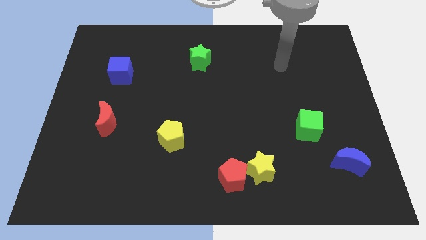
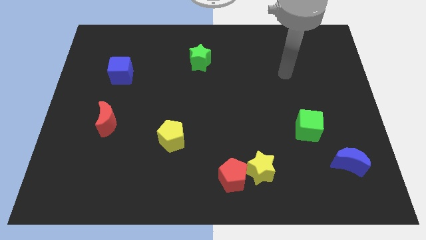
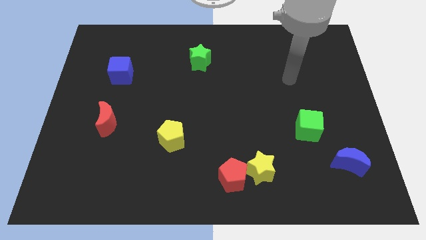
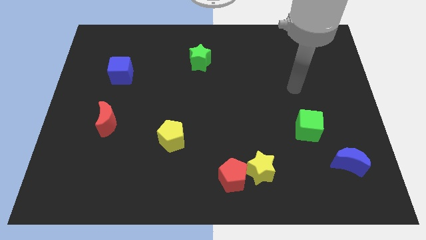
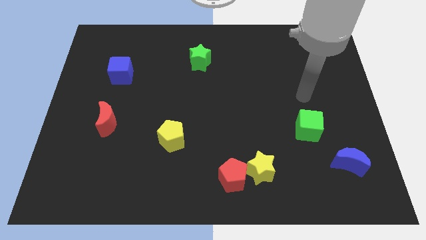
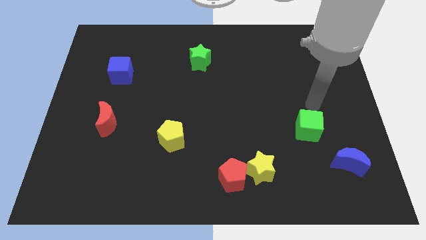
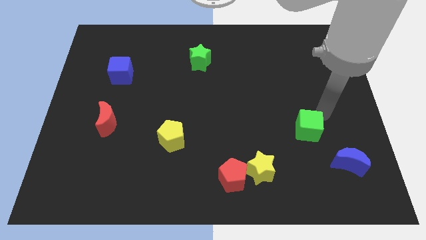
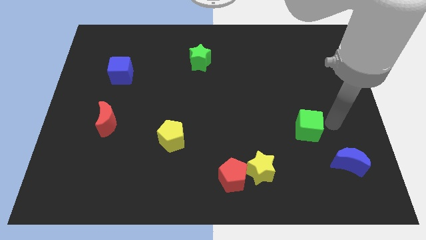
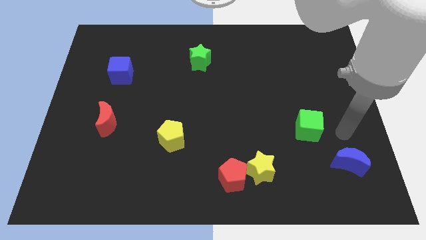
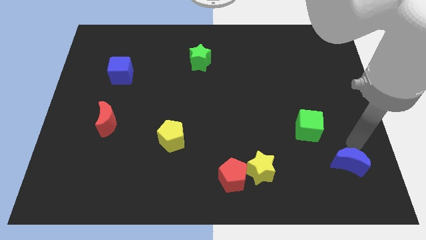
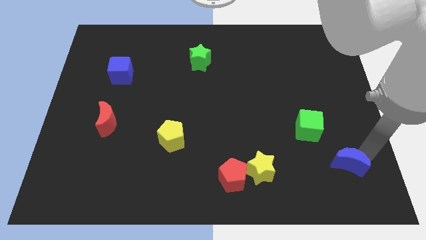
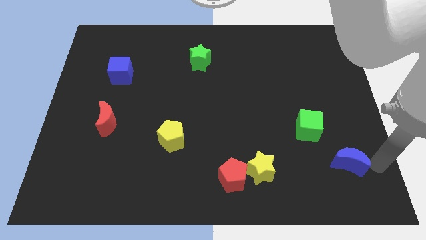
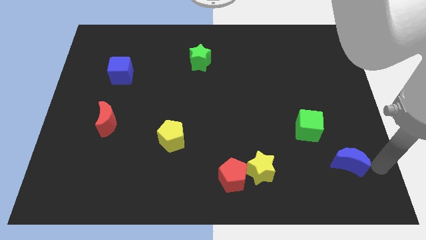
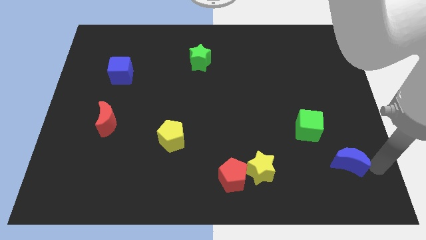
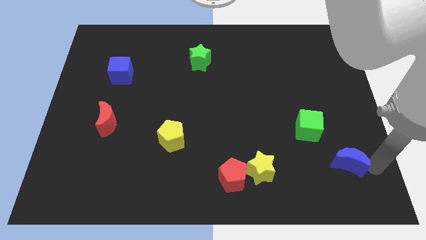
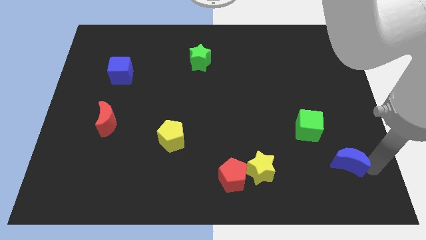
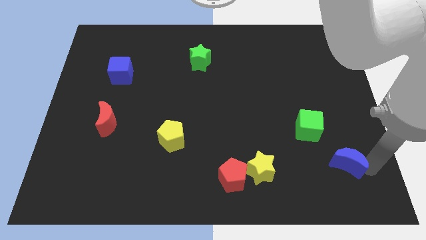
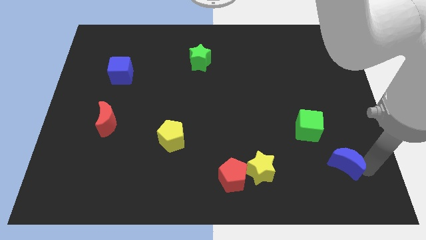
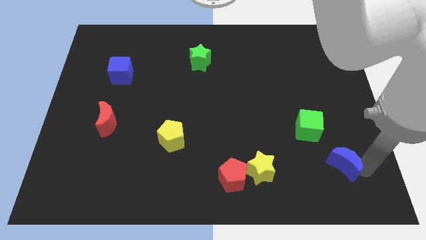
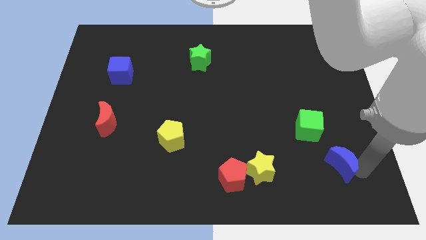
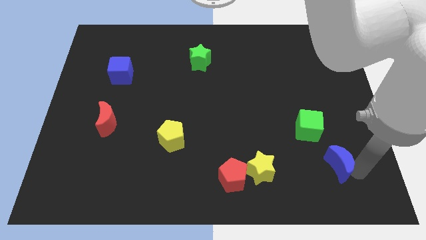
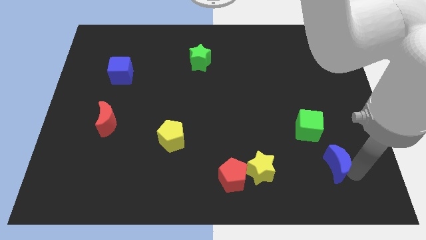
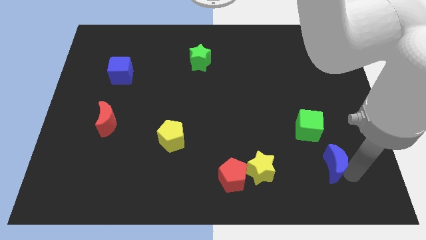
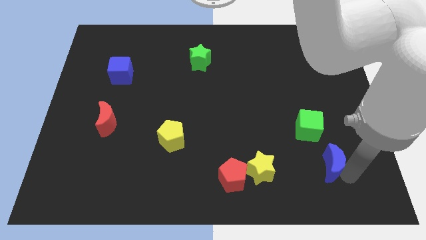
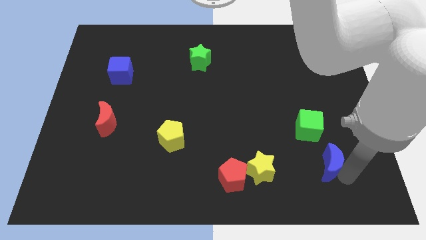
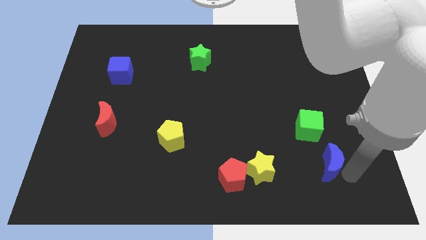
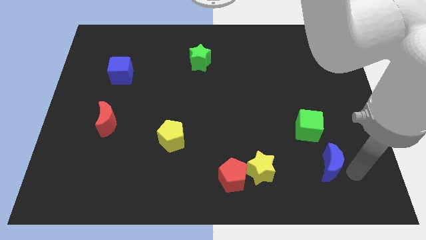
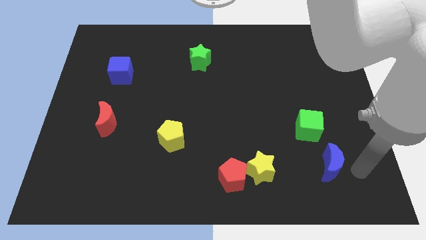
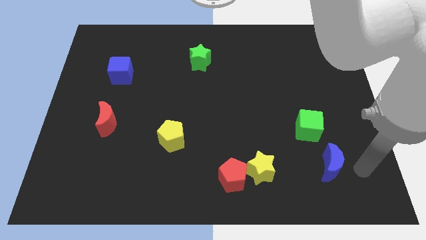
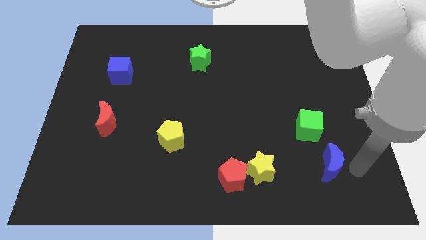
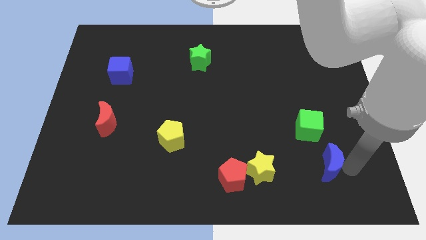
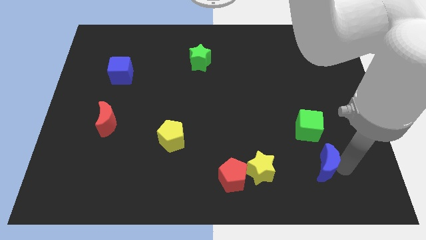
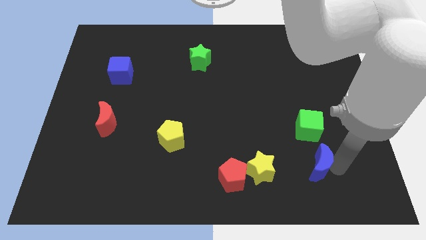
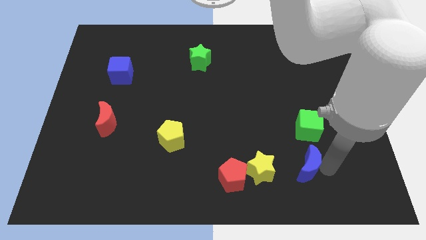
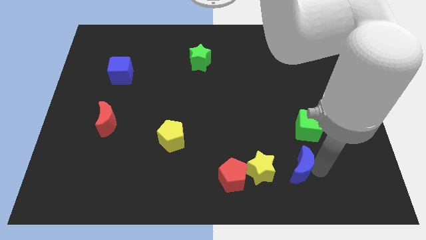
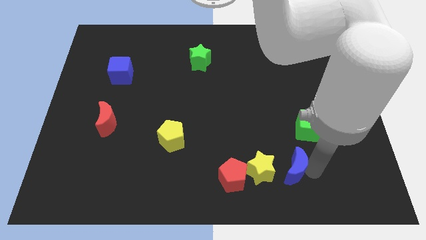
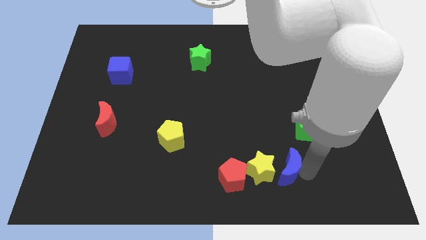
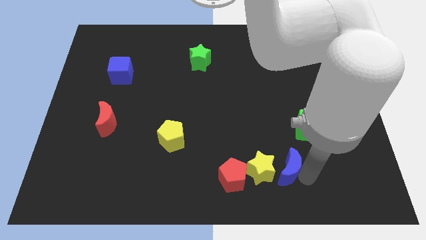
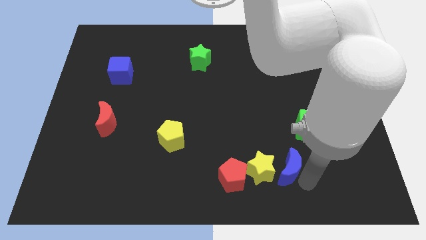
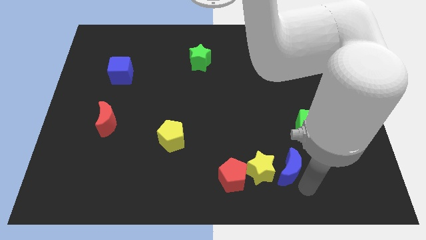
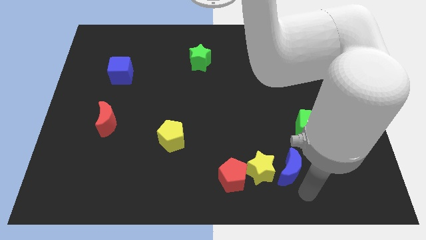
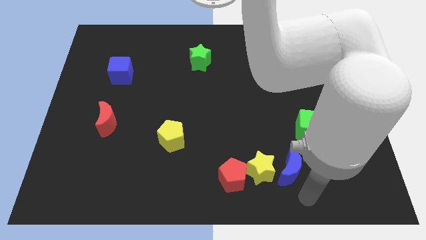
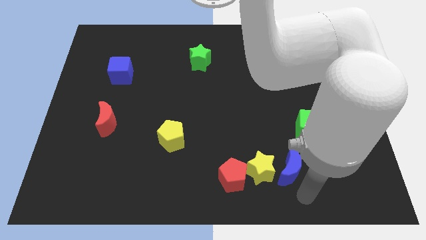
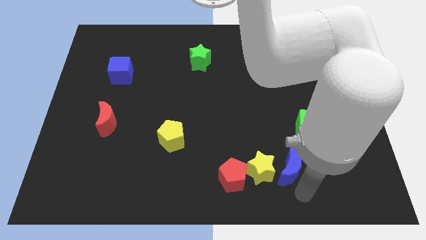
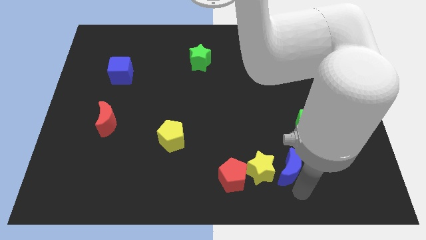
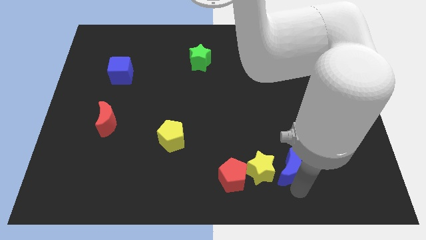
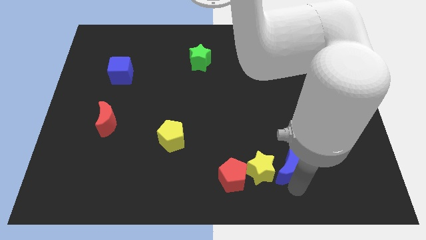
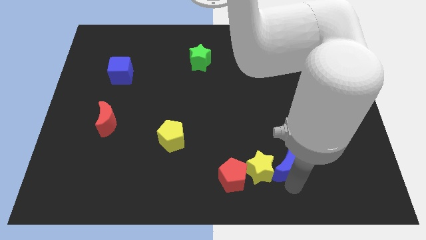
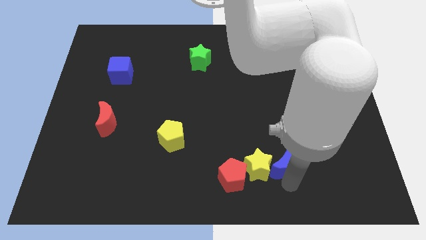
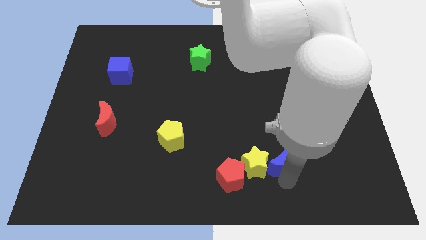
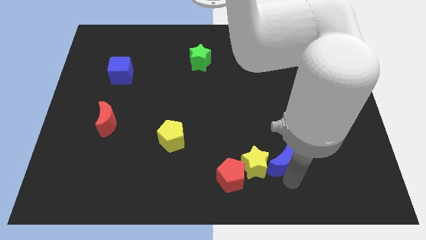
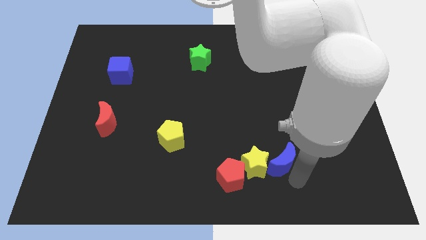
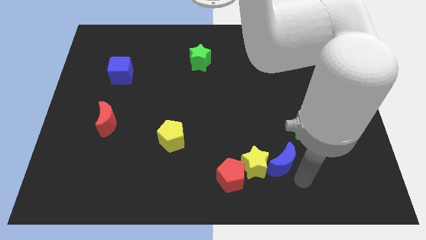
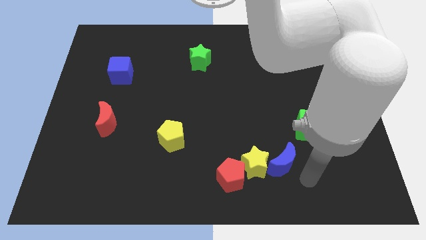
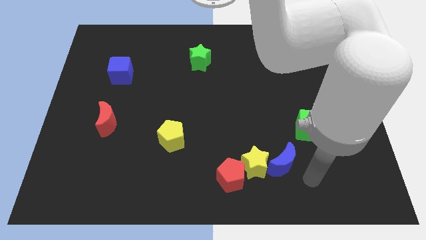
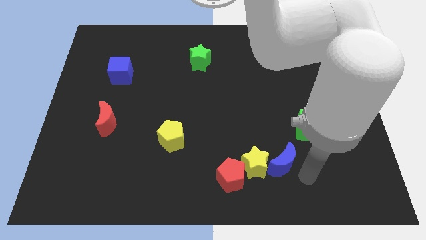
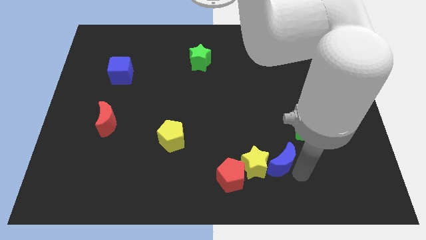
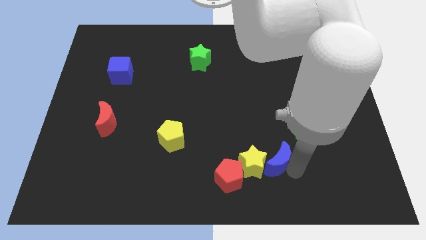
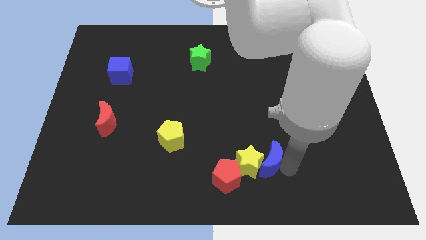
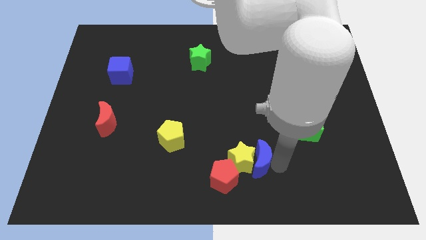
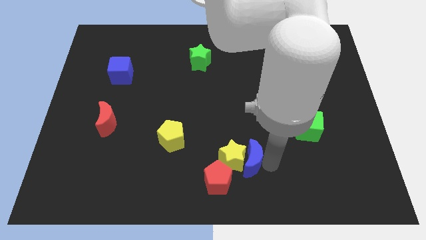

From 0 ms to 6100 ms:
move the blue moon left

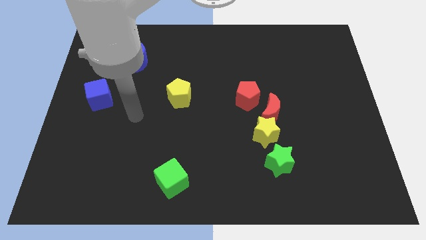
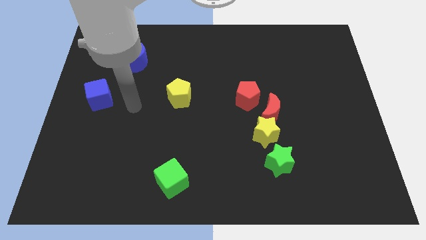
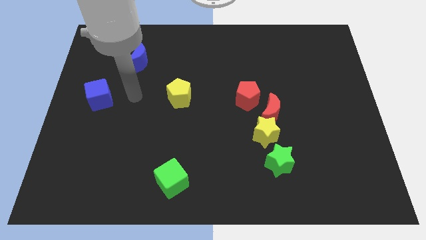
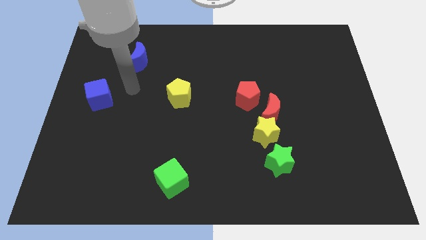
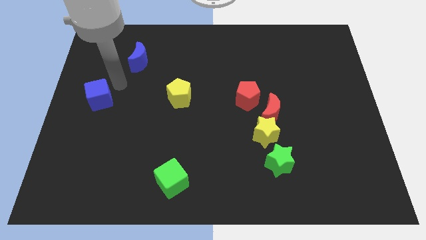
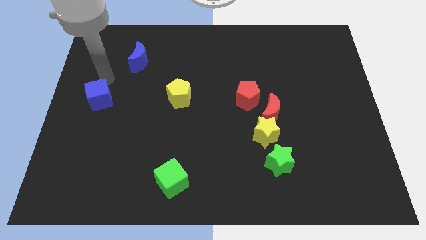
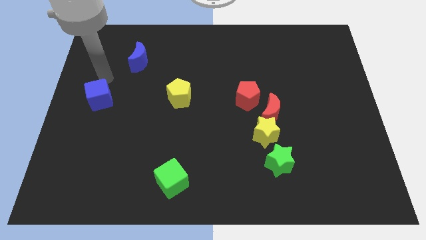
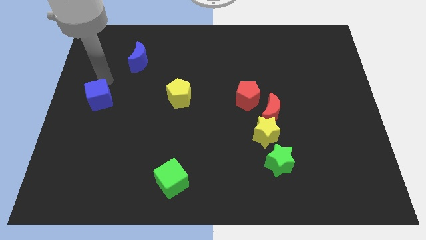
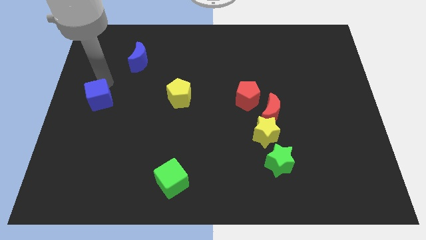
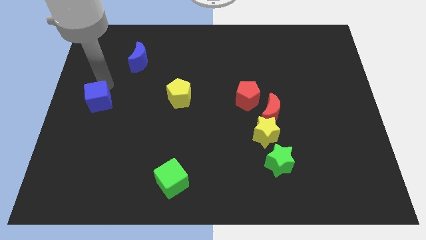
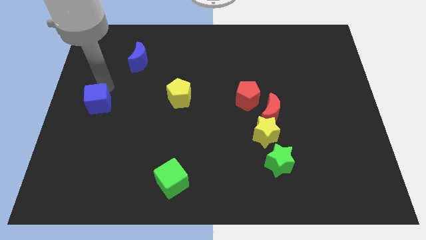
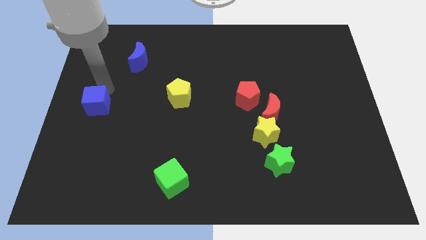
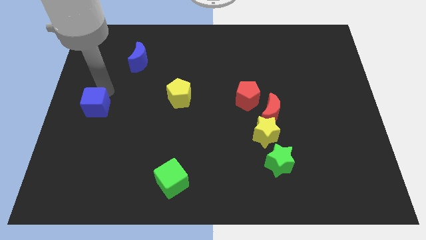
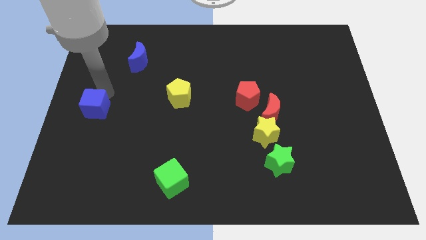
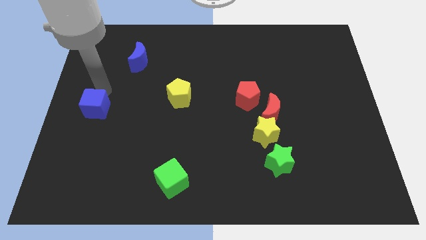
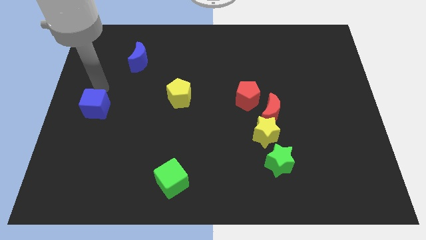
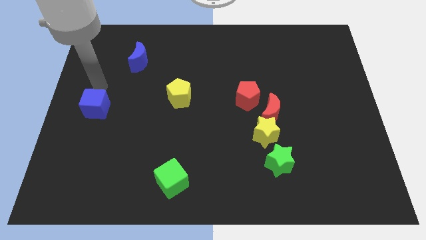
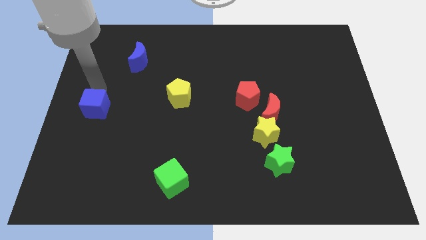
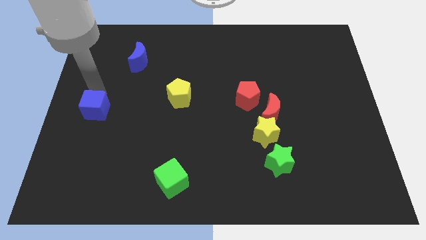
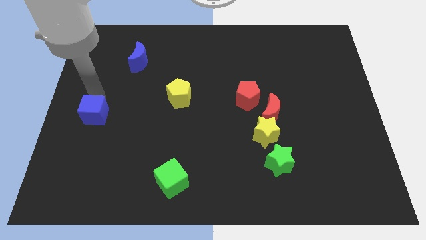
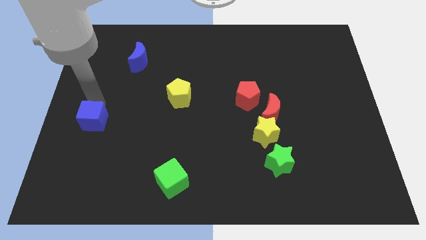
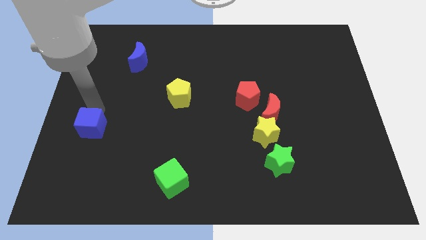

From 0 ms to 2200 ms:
move the blue cube down a little
